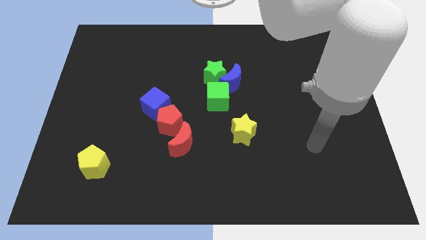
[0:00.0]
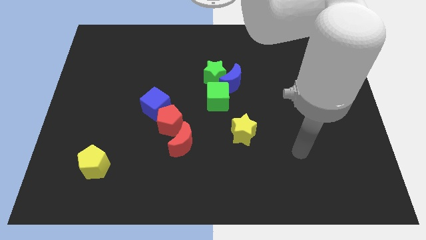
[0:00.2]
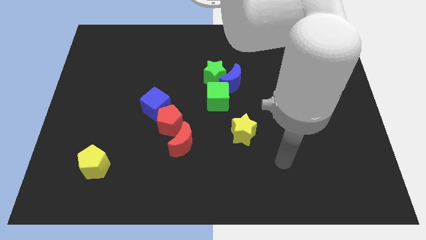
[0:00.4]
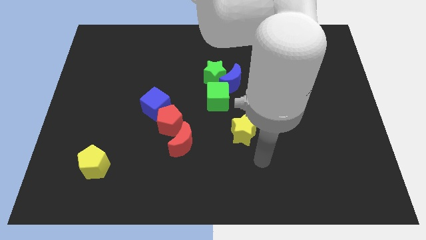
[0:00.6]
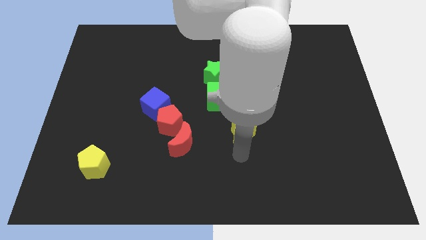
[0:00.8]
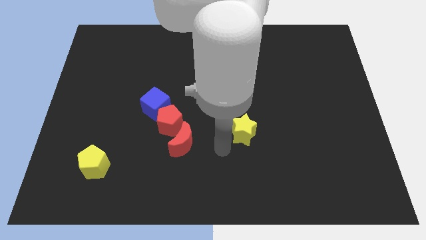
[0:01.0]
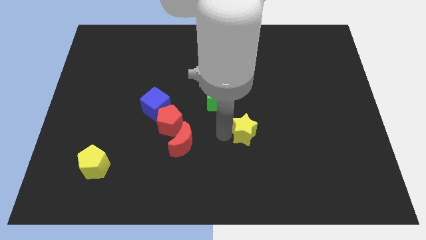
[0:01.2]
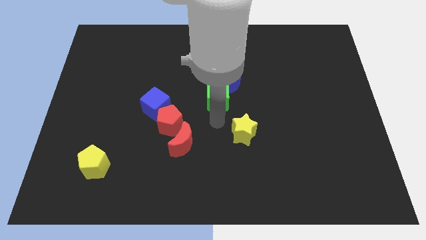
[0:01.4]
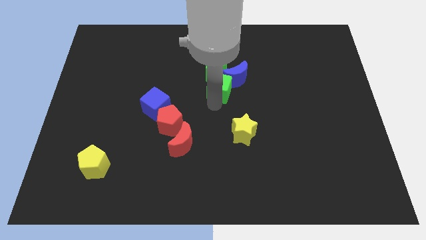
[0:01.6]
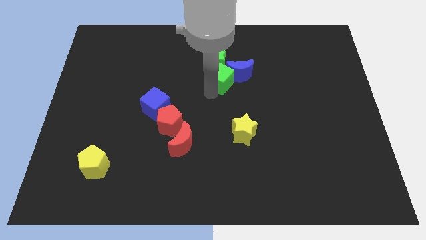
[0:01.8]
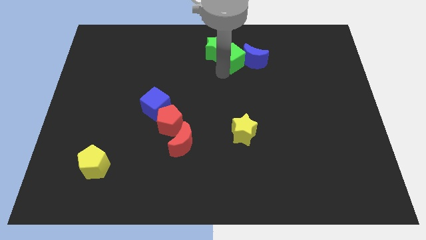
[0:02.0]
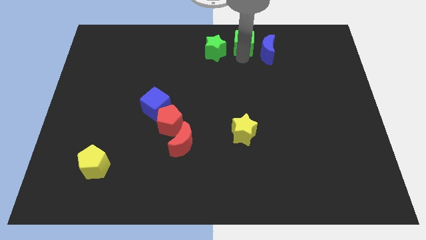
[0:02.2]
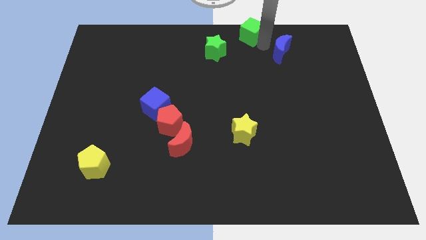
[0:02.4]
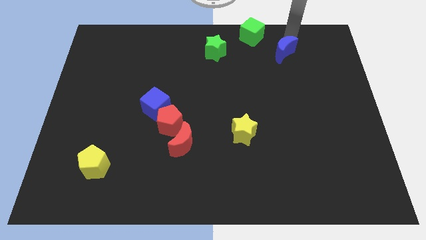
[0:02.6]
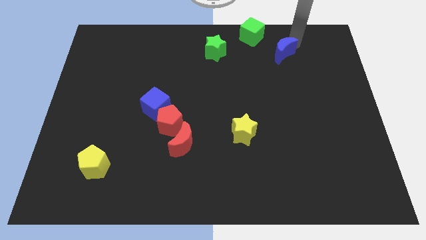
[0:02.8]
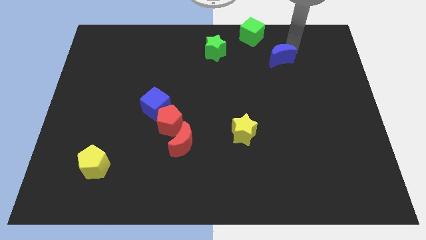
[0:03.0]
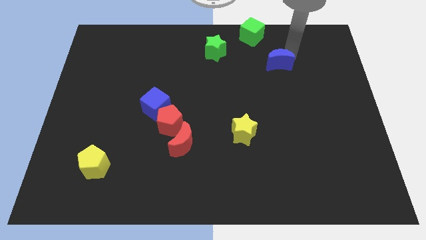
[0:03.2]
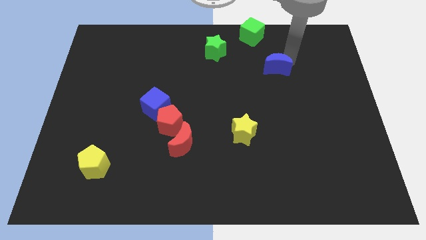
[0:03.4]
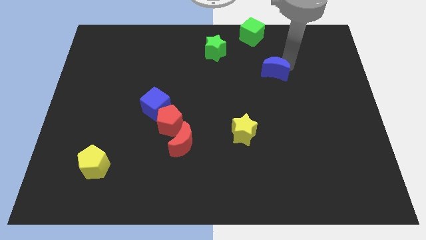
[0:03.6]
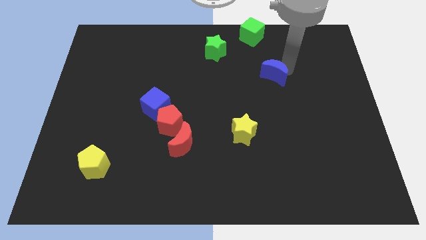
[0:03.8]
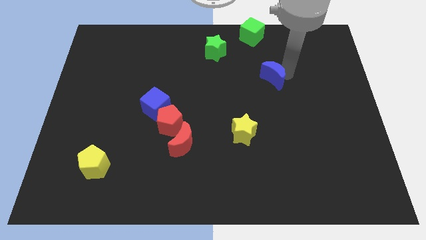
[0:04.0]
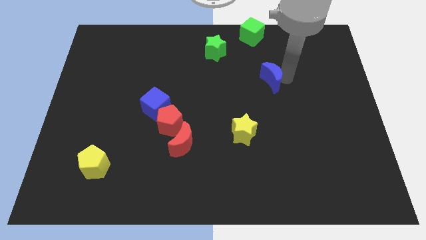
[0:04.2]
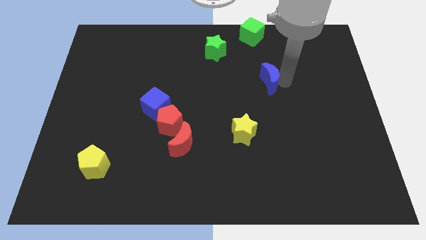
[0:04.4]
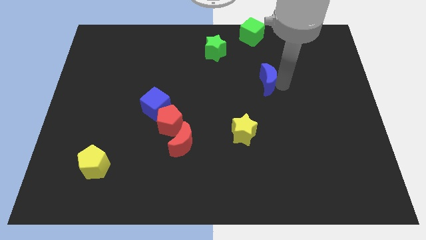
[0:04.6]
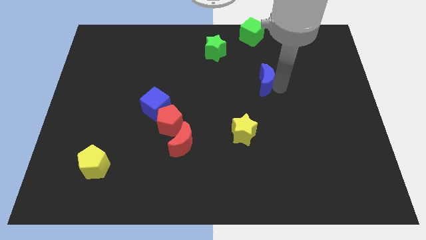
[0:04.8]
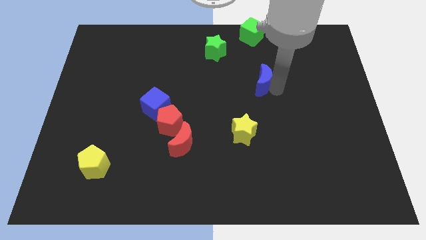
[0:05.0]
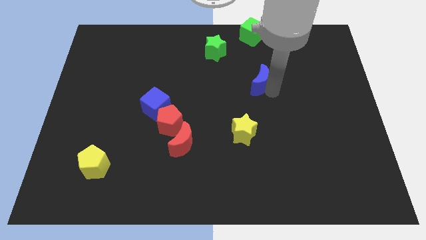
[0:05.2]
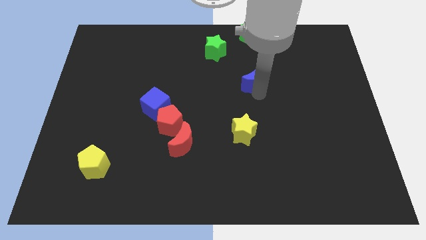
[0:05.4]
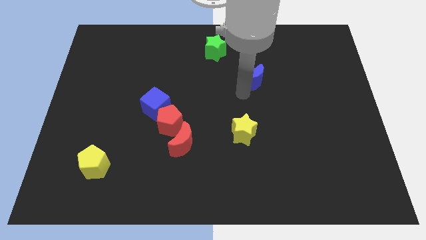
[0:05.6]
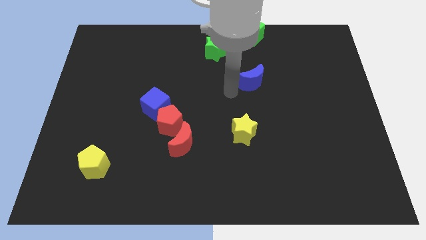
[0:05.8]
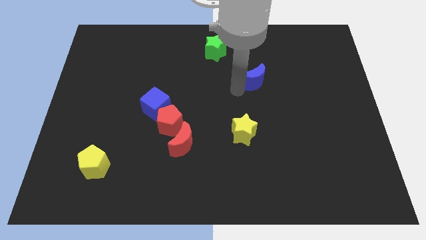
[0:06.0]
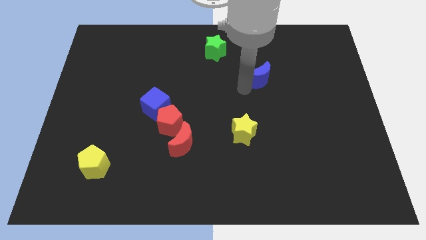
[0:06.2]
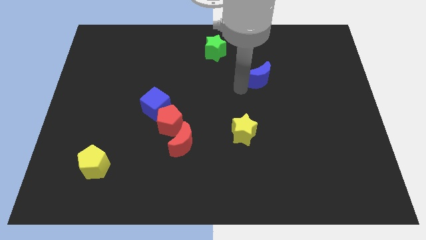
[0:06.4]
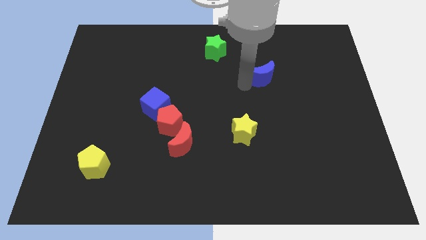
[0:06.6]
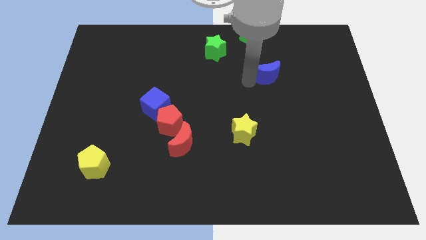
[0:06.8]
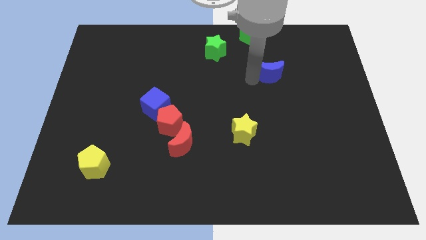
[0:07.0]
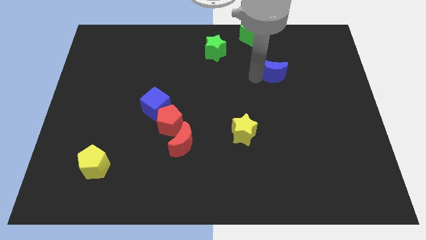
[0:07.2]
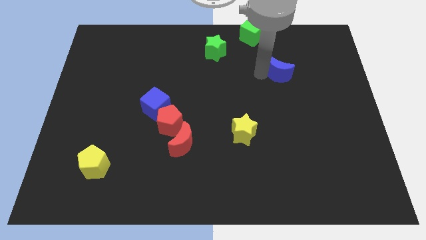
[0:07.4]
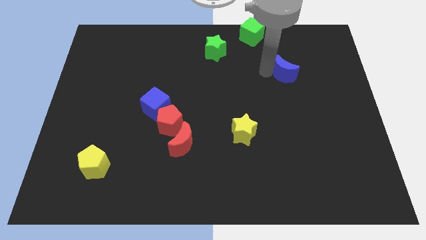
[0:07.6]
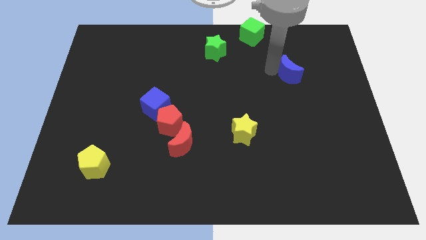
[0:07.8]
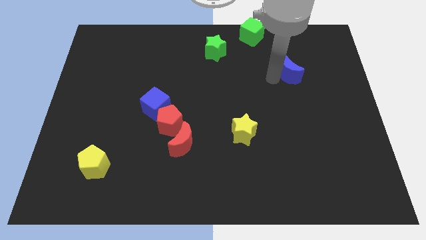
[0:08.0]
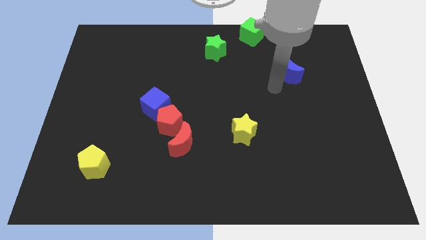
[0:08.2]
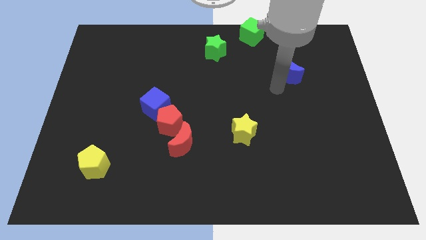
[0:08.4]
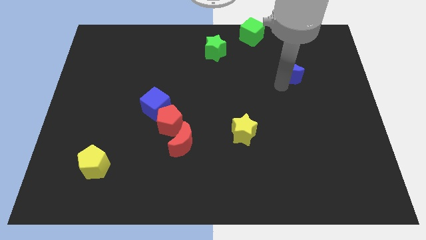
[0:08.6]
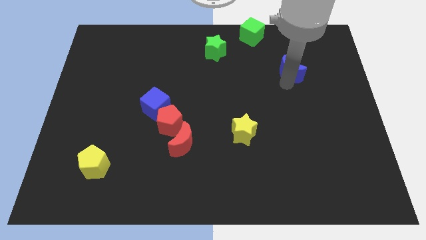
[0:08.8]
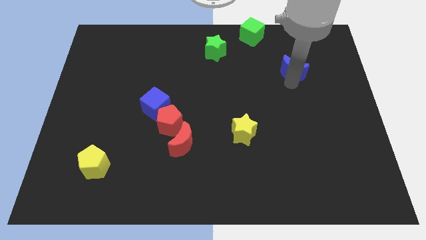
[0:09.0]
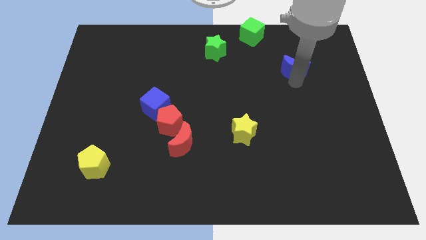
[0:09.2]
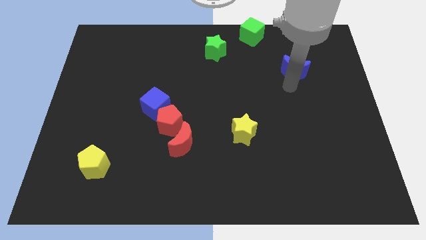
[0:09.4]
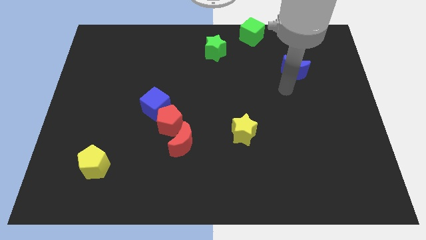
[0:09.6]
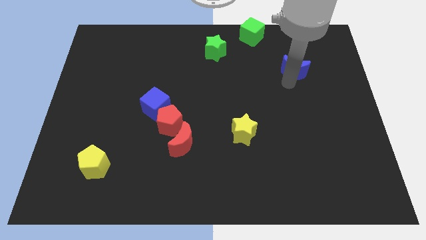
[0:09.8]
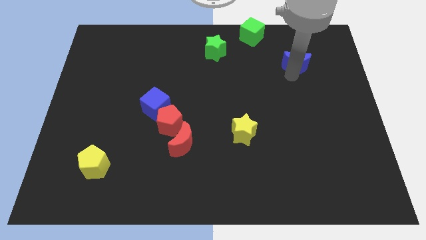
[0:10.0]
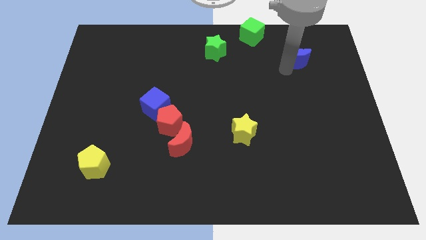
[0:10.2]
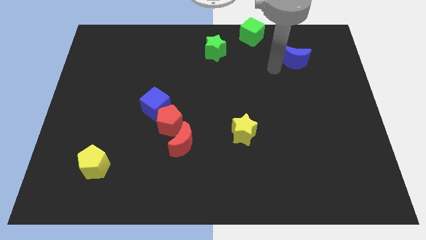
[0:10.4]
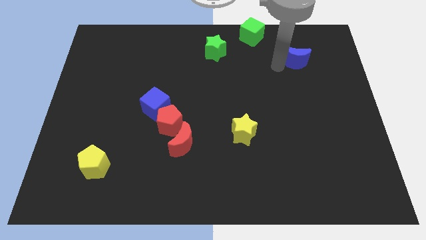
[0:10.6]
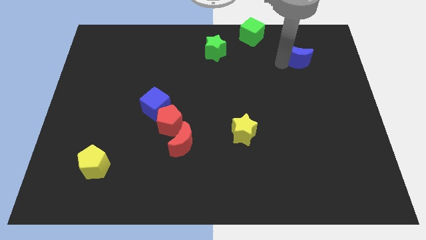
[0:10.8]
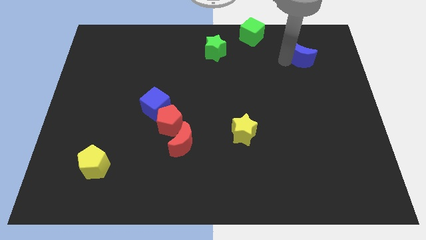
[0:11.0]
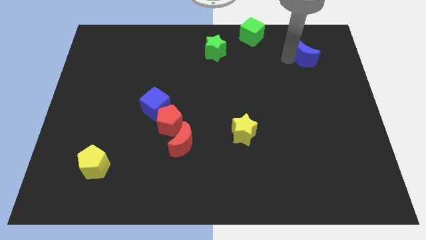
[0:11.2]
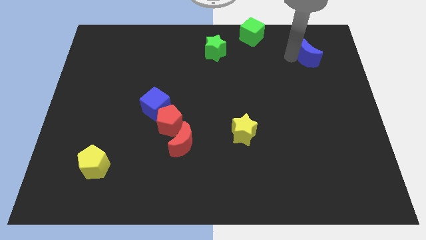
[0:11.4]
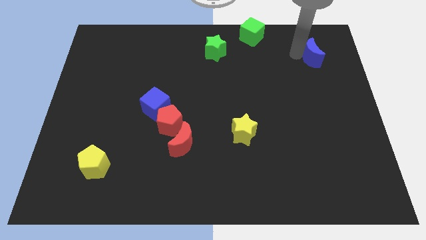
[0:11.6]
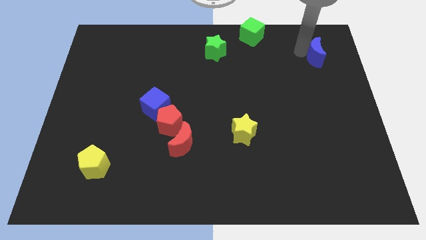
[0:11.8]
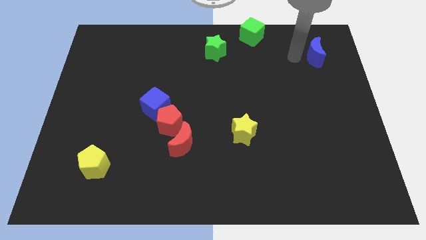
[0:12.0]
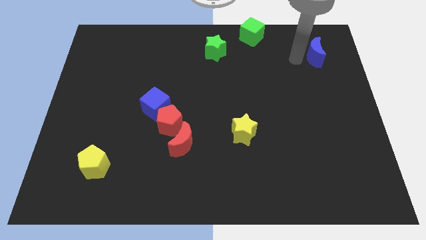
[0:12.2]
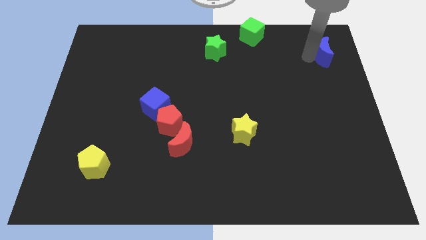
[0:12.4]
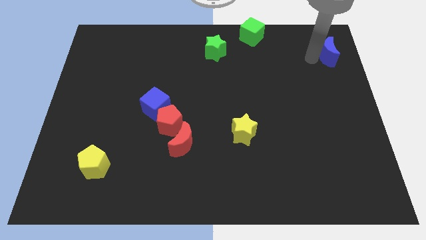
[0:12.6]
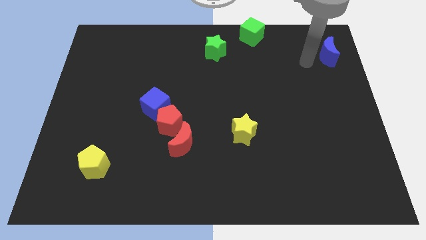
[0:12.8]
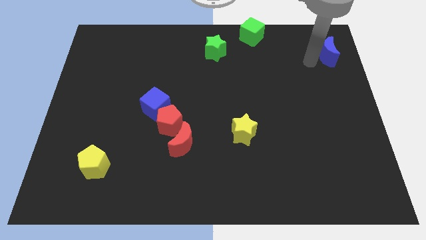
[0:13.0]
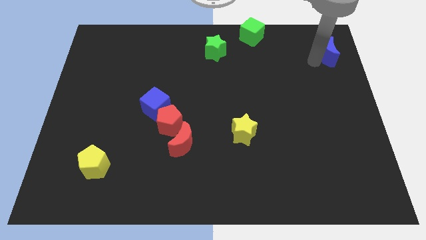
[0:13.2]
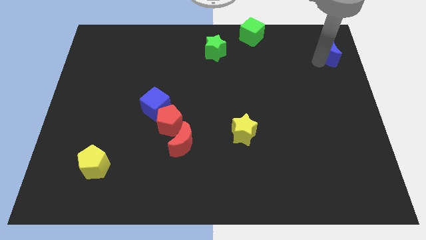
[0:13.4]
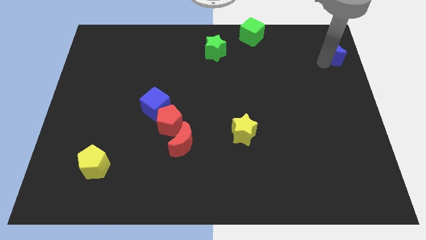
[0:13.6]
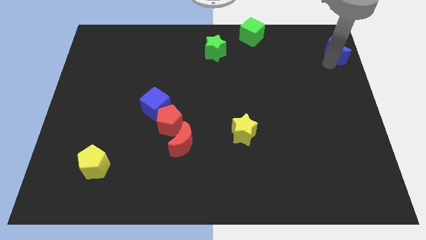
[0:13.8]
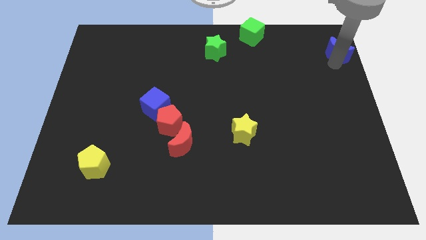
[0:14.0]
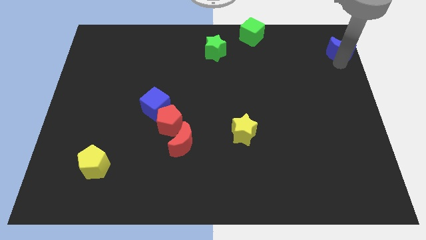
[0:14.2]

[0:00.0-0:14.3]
push the blue moon to the upper right corner

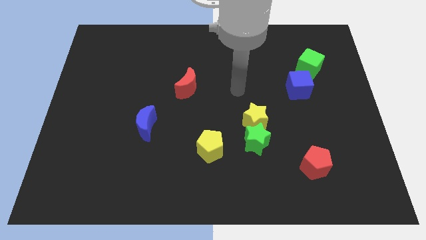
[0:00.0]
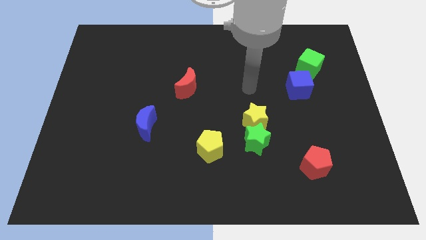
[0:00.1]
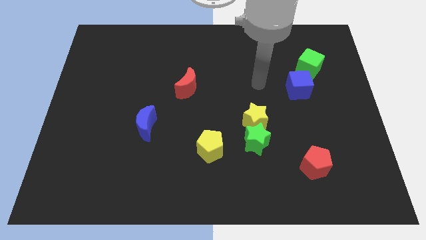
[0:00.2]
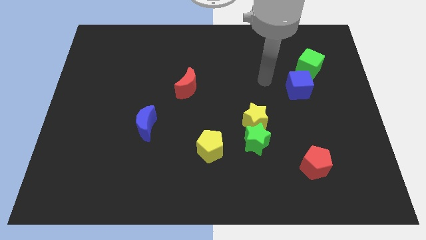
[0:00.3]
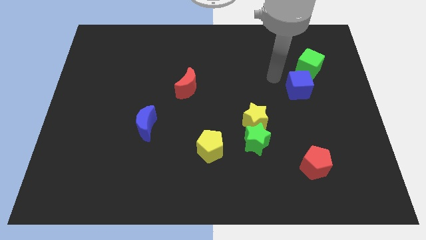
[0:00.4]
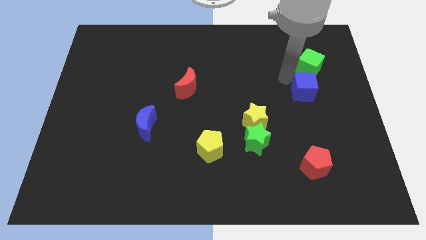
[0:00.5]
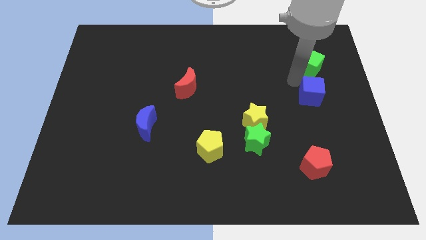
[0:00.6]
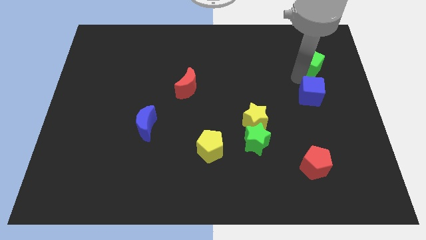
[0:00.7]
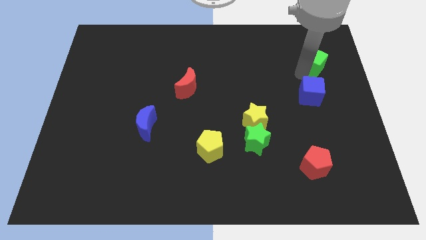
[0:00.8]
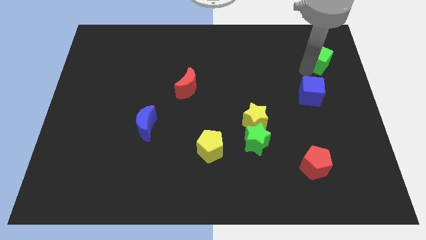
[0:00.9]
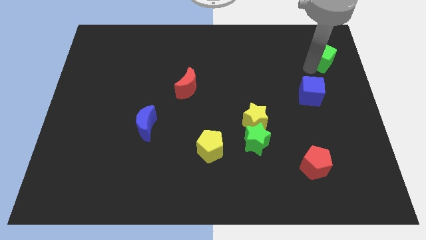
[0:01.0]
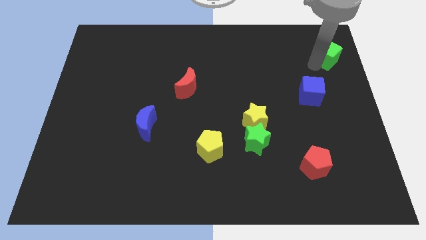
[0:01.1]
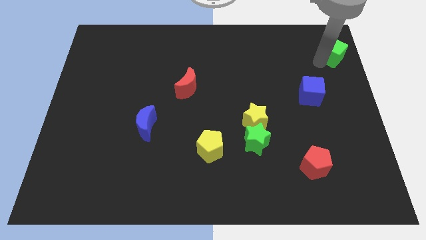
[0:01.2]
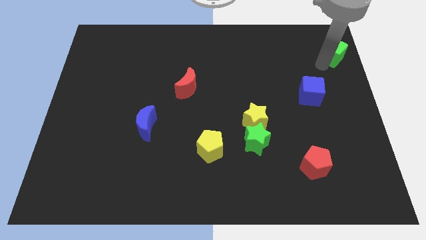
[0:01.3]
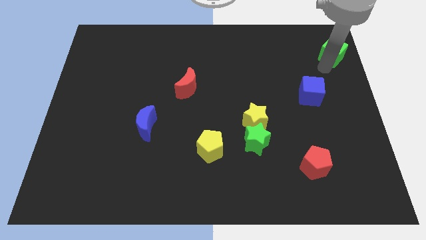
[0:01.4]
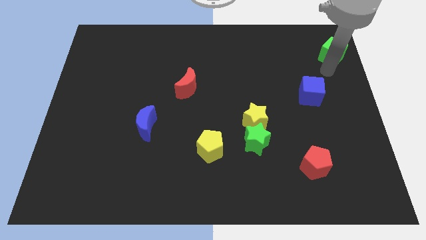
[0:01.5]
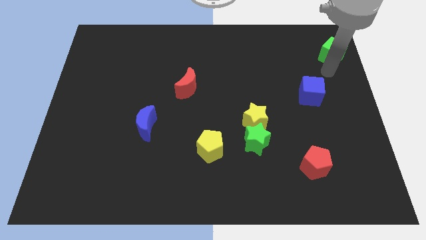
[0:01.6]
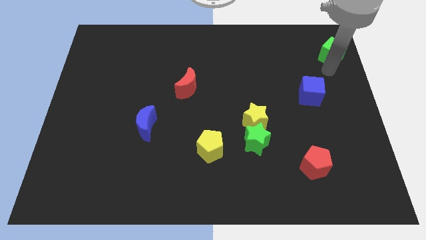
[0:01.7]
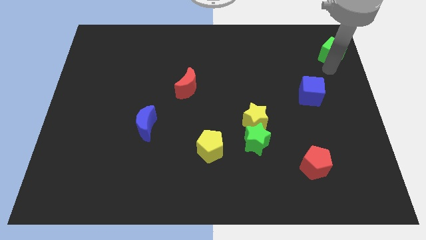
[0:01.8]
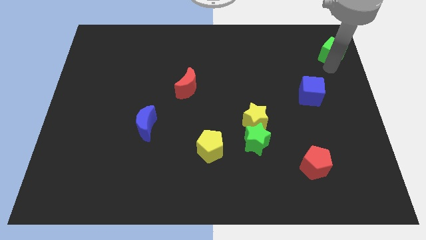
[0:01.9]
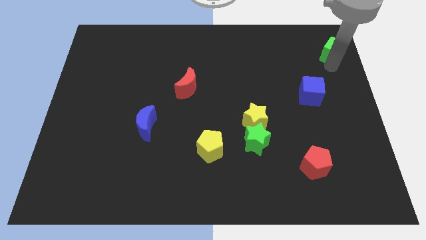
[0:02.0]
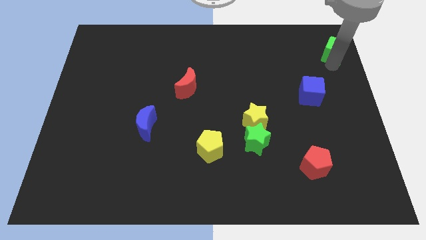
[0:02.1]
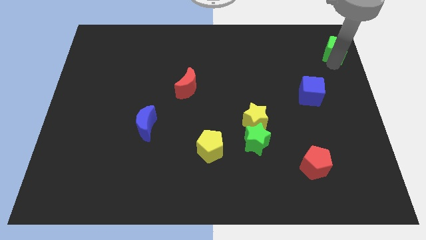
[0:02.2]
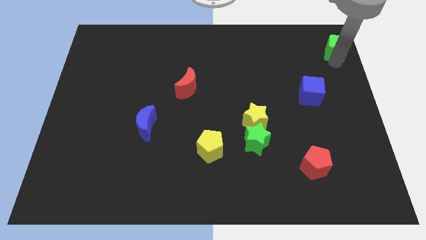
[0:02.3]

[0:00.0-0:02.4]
move the green cube to the top right of the board
